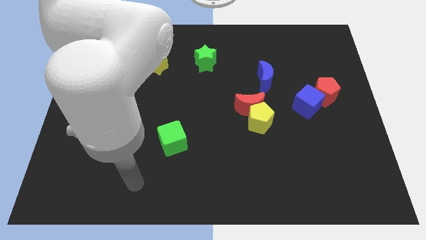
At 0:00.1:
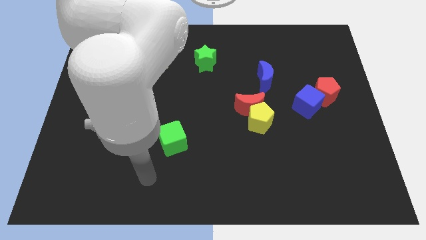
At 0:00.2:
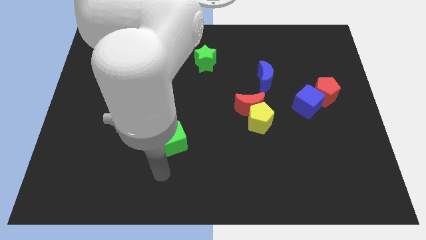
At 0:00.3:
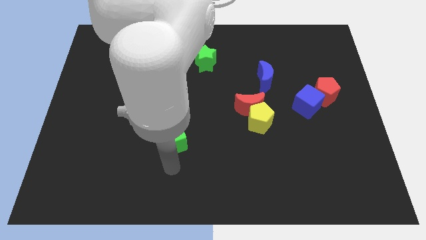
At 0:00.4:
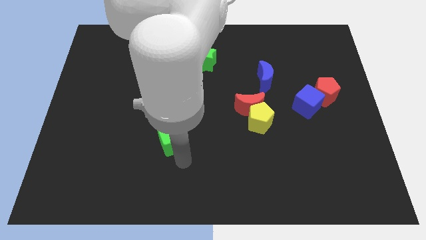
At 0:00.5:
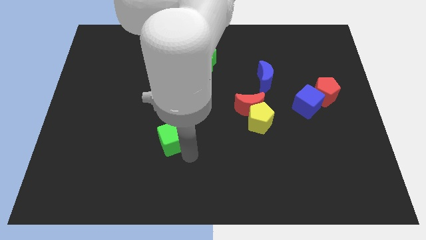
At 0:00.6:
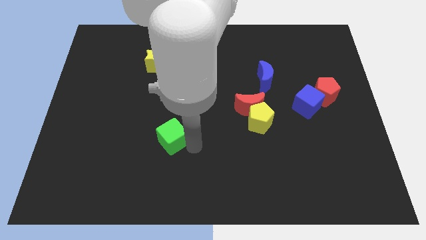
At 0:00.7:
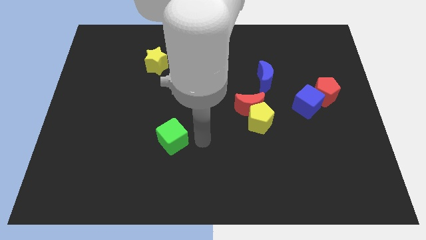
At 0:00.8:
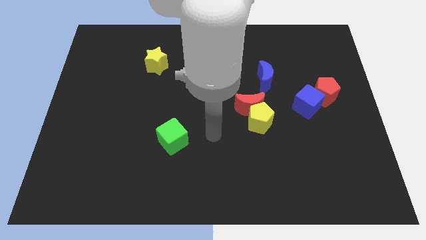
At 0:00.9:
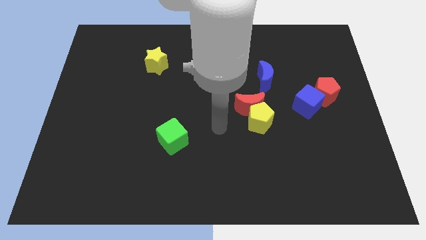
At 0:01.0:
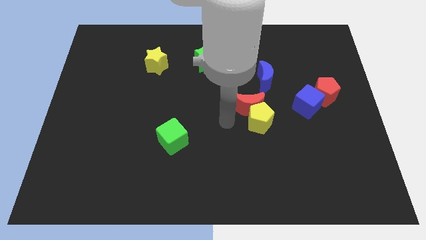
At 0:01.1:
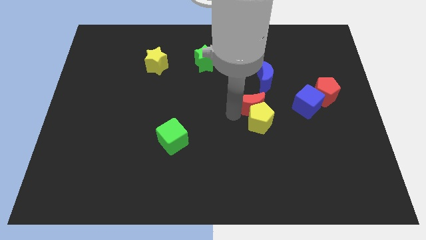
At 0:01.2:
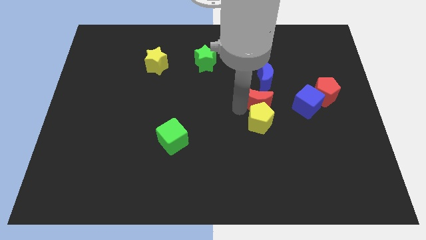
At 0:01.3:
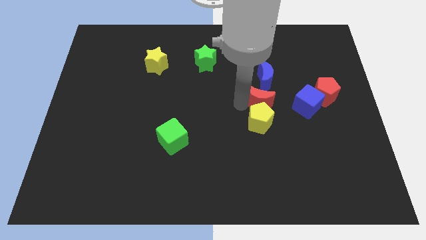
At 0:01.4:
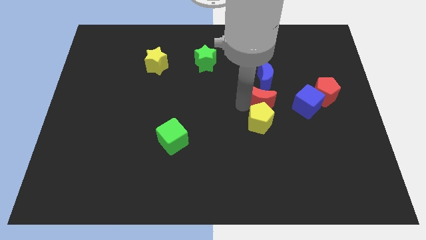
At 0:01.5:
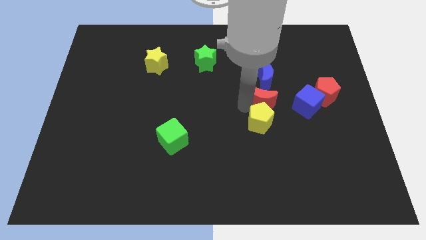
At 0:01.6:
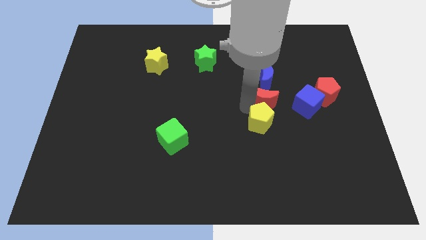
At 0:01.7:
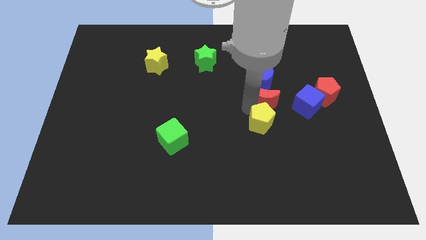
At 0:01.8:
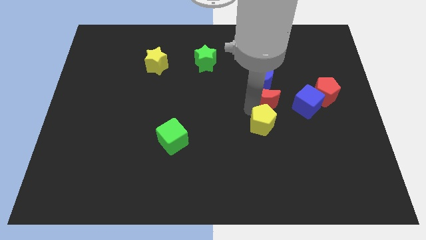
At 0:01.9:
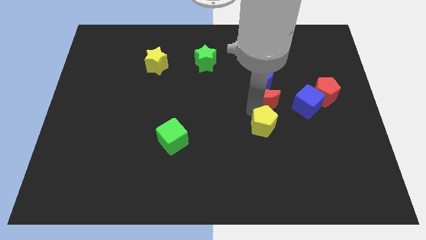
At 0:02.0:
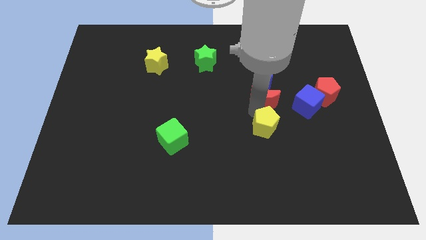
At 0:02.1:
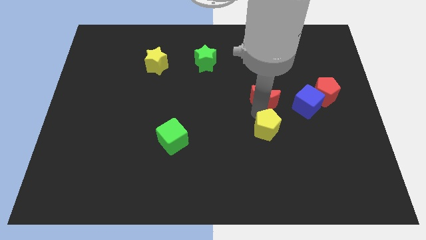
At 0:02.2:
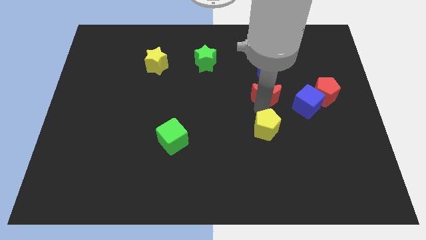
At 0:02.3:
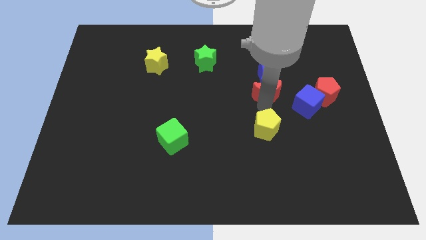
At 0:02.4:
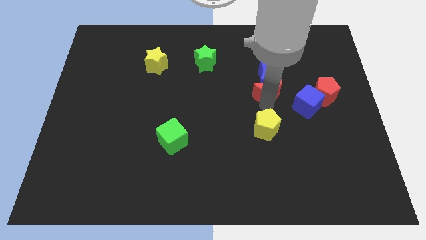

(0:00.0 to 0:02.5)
pull the yellow pentagon apart from the red moon

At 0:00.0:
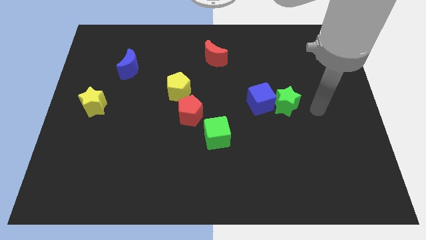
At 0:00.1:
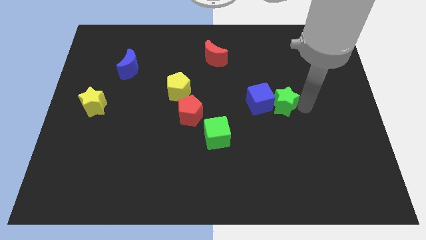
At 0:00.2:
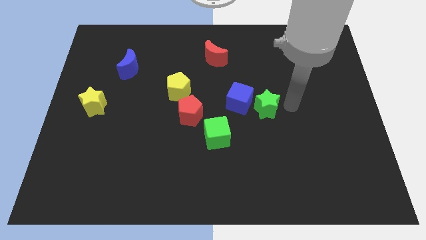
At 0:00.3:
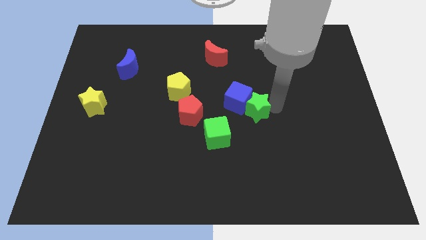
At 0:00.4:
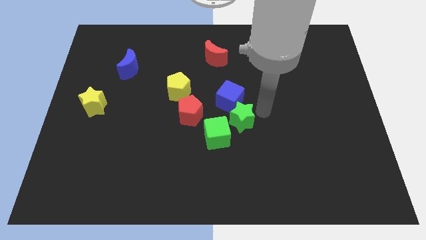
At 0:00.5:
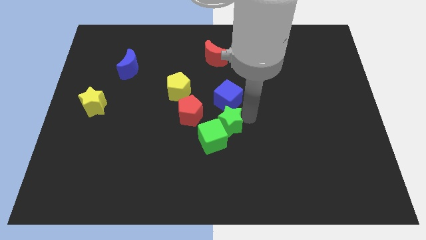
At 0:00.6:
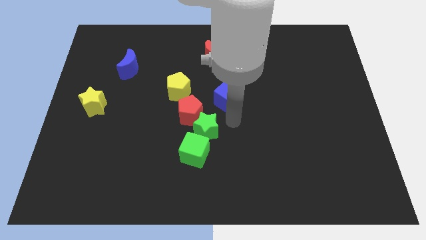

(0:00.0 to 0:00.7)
pull the blue cube apart from the green star

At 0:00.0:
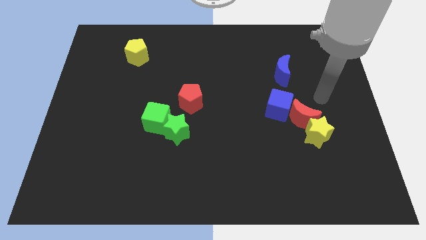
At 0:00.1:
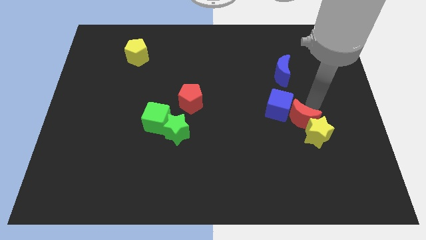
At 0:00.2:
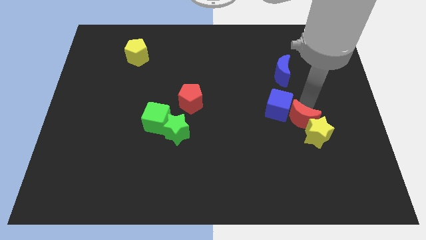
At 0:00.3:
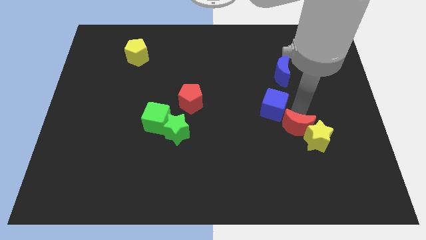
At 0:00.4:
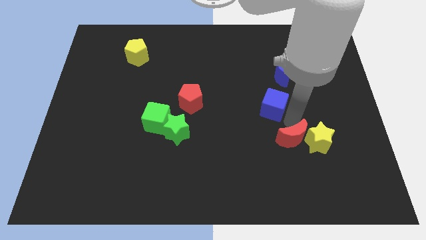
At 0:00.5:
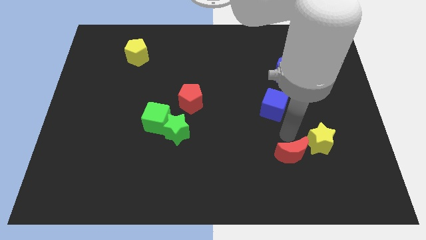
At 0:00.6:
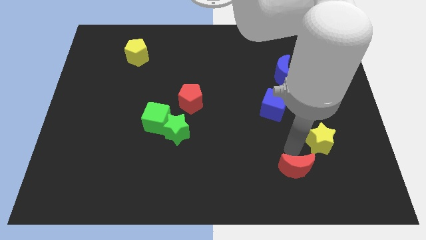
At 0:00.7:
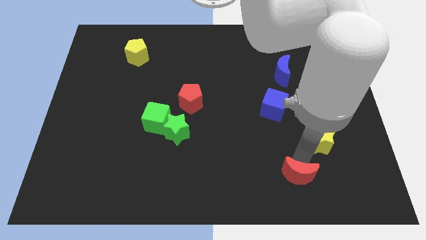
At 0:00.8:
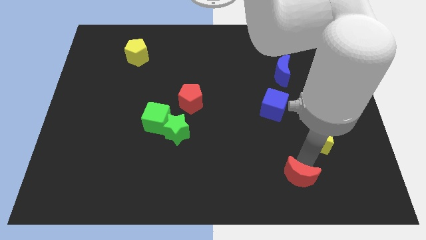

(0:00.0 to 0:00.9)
pull the yellow star apart from the red moon

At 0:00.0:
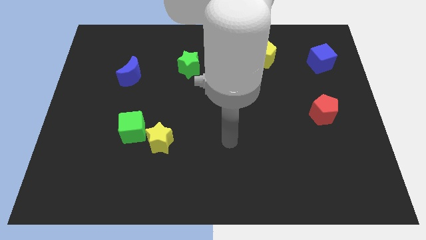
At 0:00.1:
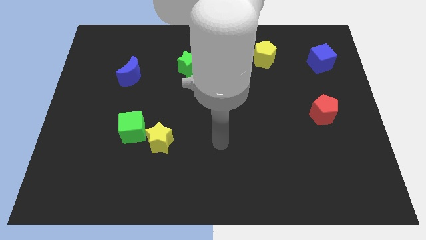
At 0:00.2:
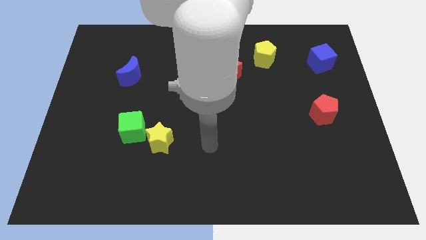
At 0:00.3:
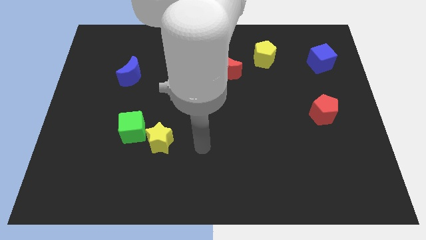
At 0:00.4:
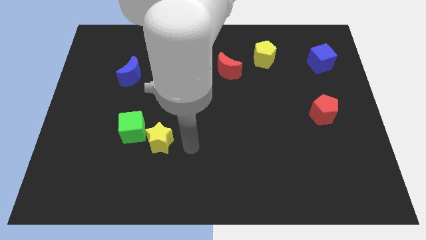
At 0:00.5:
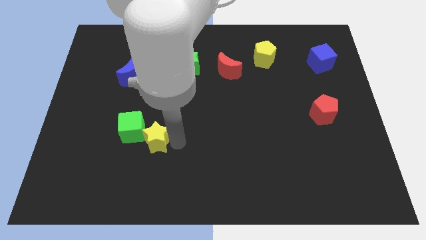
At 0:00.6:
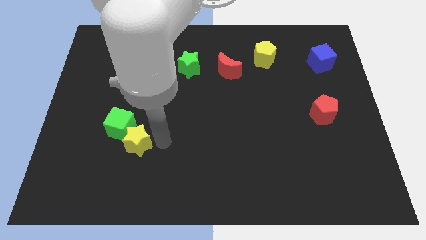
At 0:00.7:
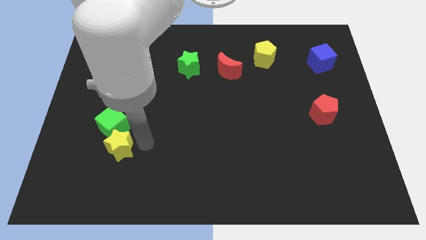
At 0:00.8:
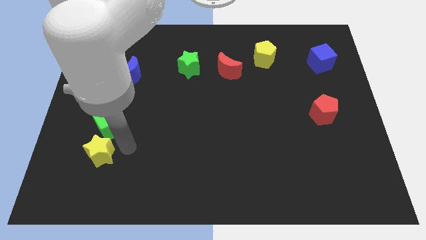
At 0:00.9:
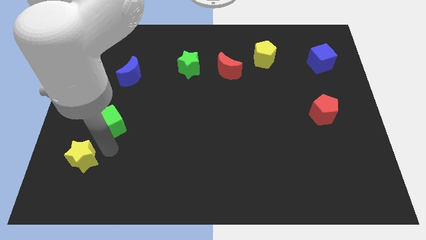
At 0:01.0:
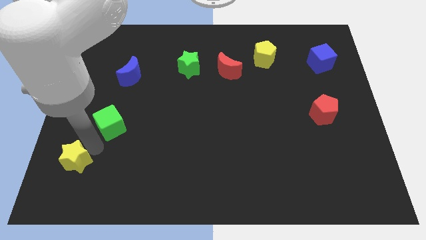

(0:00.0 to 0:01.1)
separate the green cube from the yellow star

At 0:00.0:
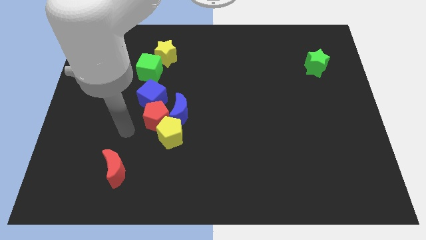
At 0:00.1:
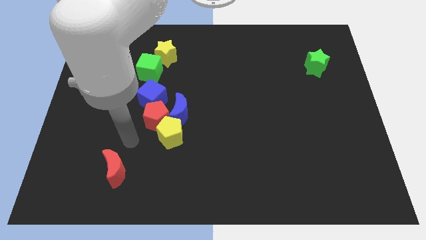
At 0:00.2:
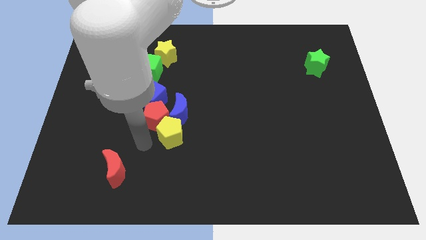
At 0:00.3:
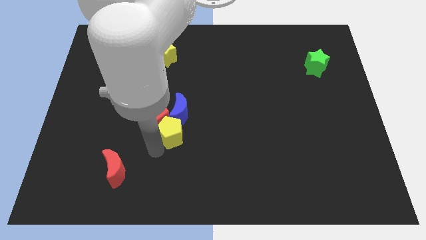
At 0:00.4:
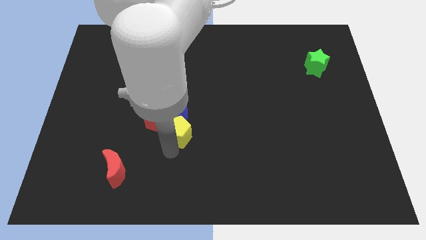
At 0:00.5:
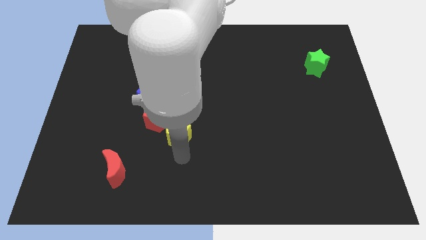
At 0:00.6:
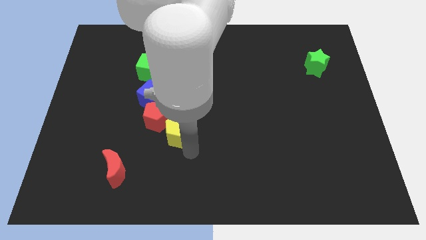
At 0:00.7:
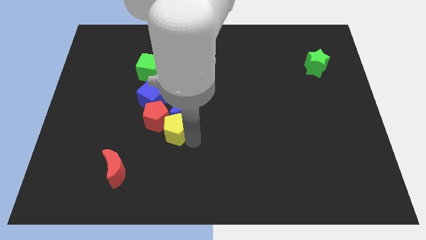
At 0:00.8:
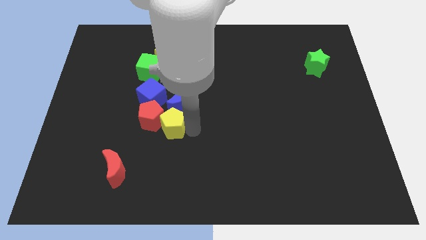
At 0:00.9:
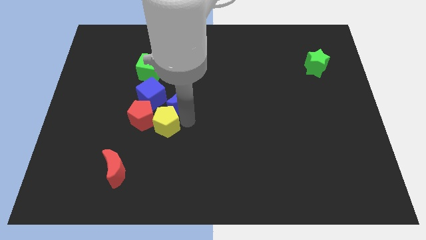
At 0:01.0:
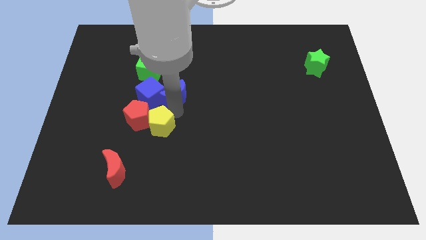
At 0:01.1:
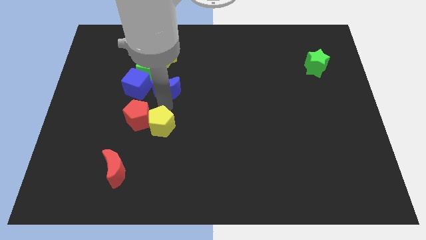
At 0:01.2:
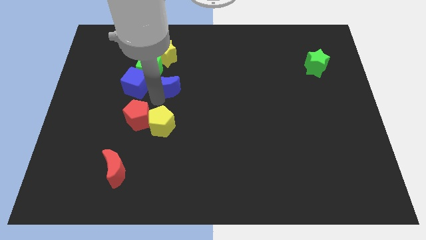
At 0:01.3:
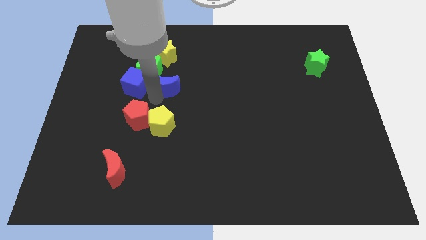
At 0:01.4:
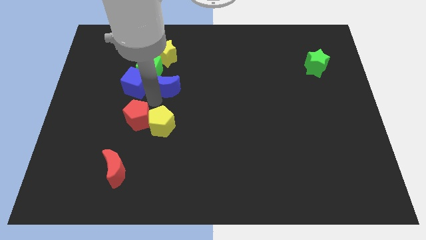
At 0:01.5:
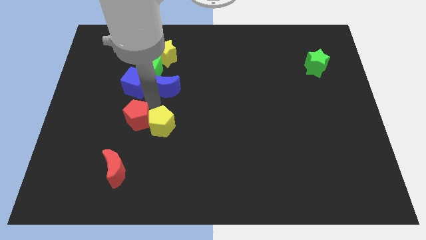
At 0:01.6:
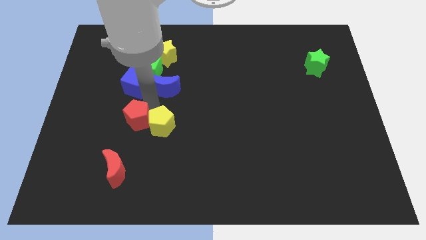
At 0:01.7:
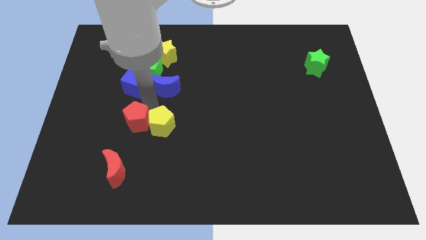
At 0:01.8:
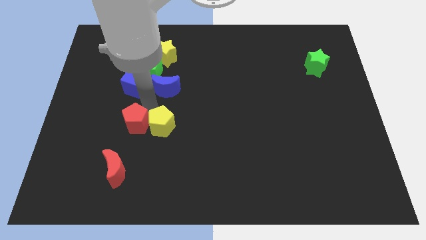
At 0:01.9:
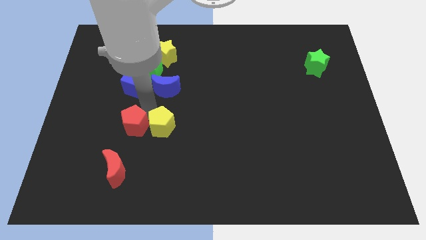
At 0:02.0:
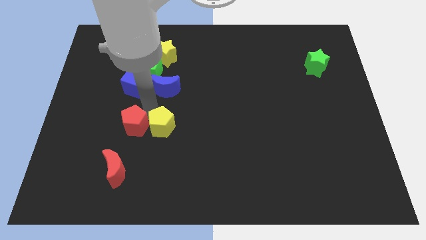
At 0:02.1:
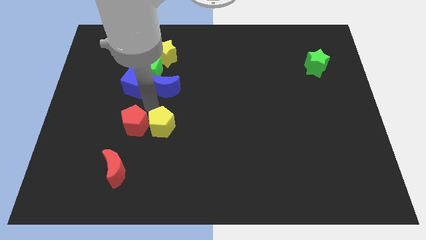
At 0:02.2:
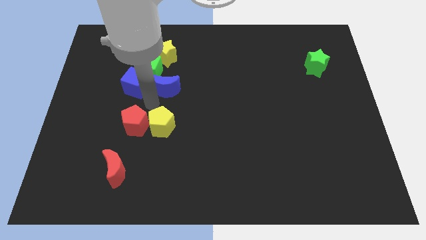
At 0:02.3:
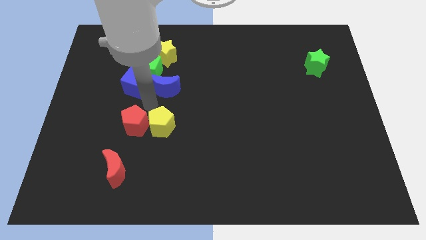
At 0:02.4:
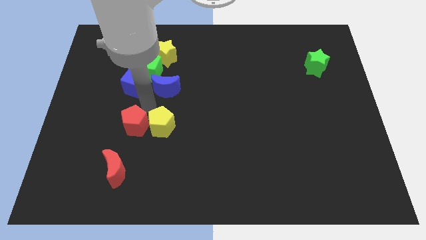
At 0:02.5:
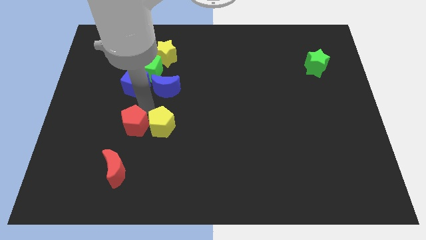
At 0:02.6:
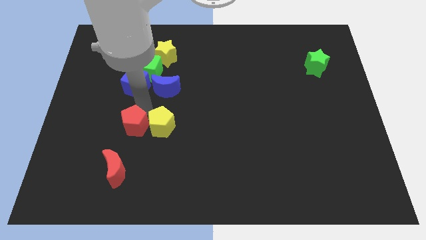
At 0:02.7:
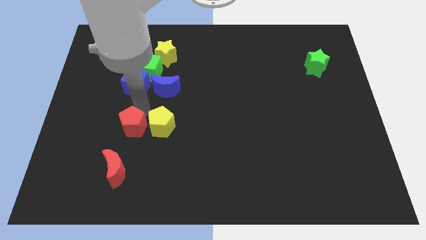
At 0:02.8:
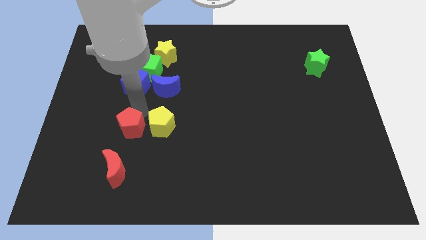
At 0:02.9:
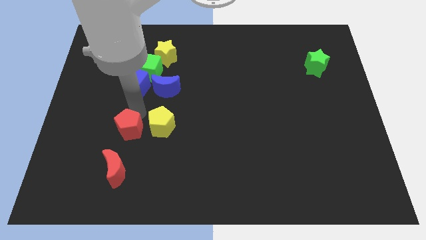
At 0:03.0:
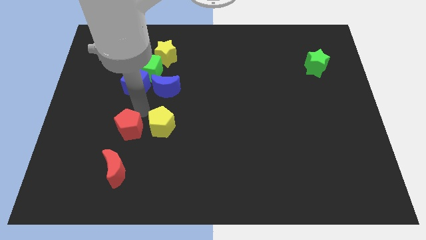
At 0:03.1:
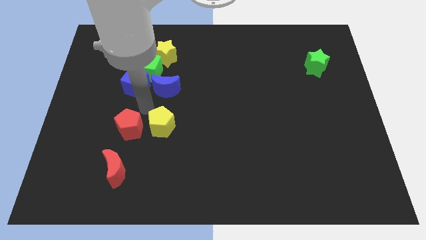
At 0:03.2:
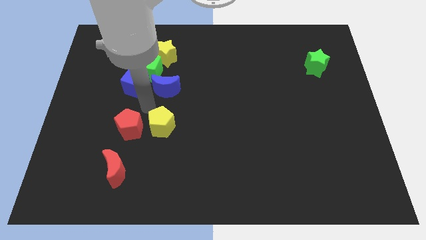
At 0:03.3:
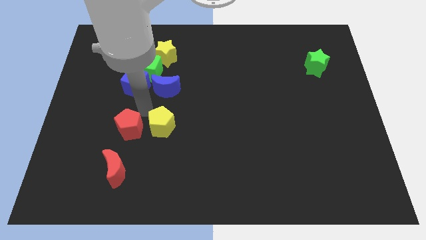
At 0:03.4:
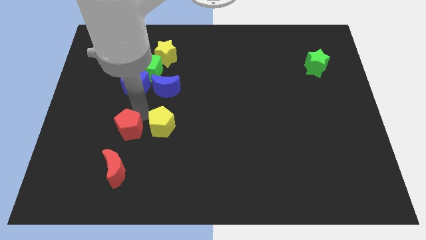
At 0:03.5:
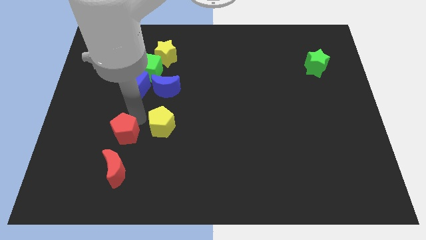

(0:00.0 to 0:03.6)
pull the red pentagon apart from the group of blocks

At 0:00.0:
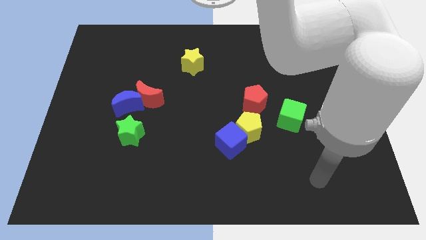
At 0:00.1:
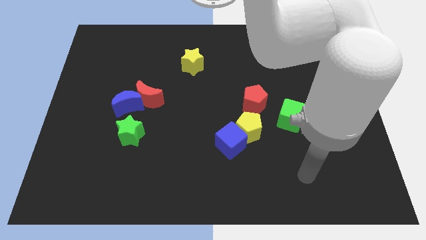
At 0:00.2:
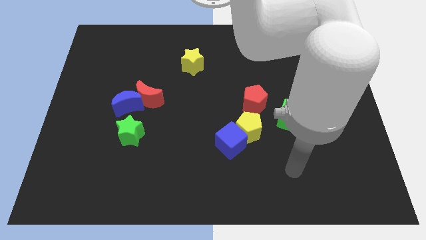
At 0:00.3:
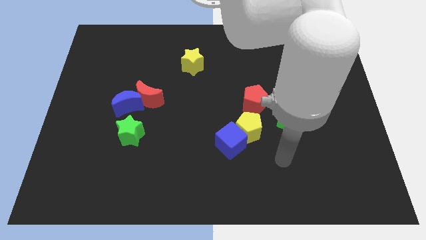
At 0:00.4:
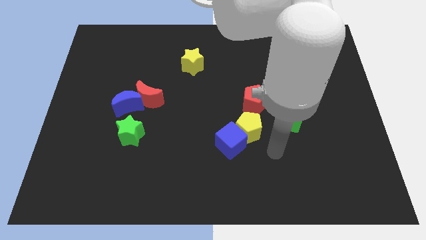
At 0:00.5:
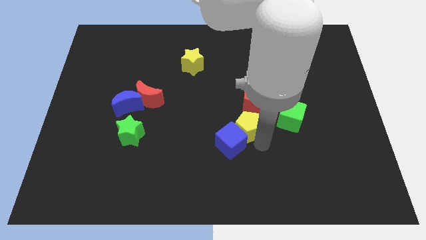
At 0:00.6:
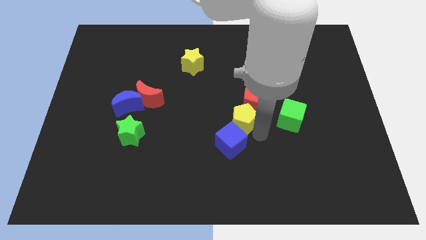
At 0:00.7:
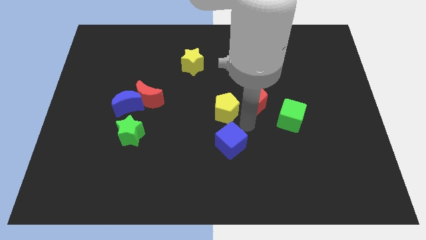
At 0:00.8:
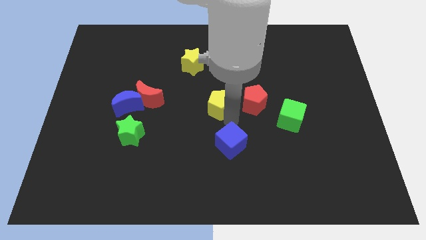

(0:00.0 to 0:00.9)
separate the blue cube from the yellow pentagon
